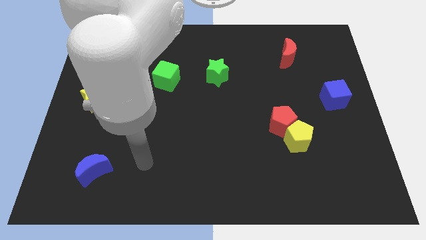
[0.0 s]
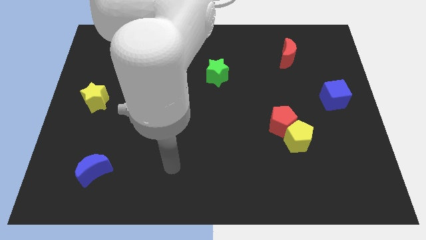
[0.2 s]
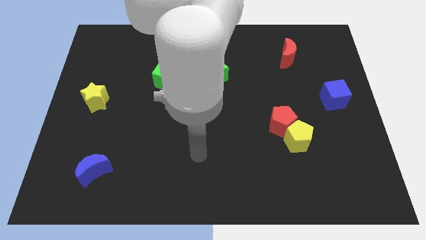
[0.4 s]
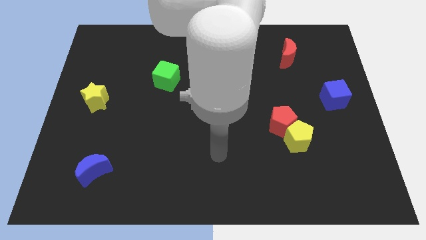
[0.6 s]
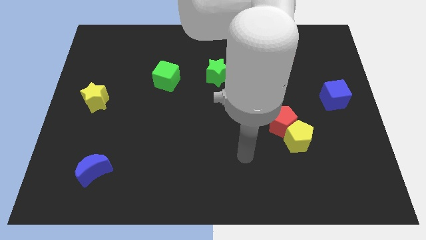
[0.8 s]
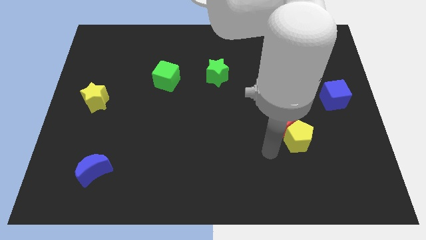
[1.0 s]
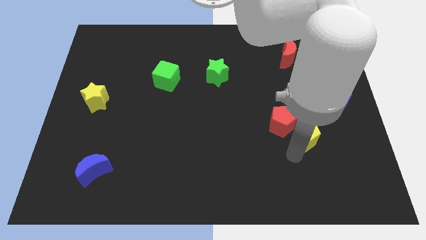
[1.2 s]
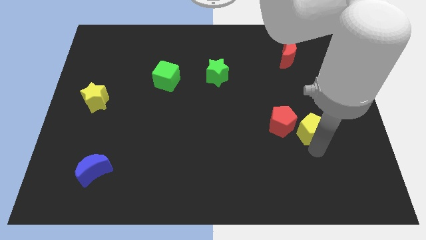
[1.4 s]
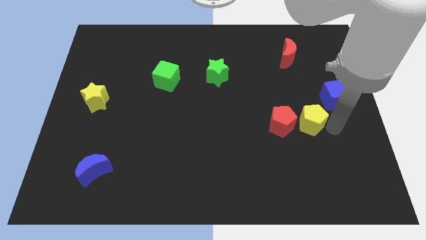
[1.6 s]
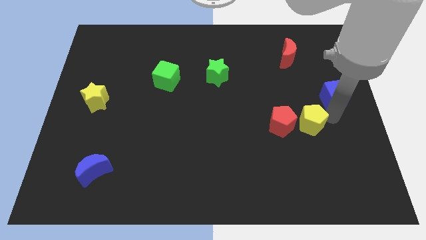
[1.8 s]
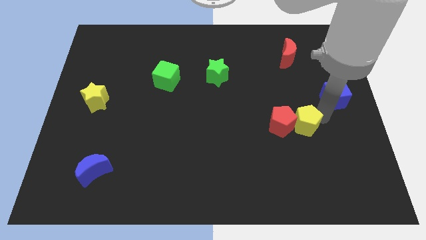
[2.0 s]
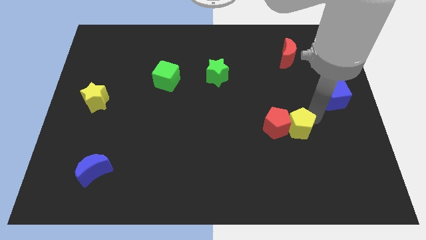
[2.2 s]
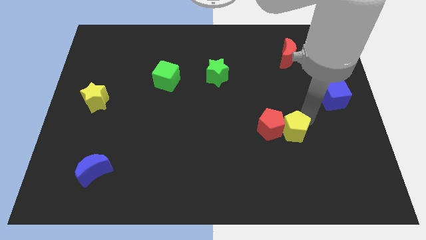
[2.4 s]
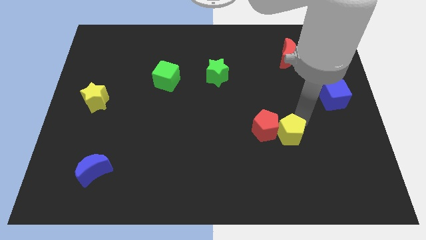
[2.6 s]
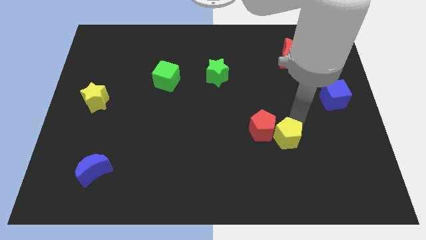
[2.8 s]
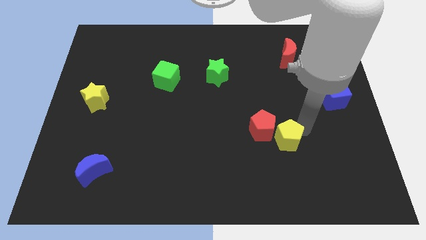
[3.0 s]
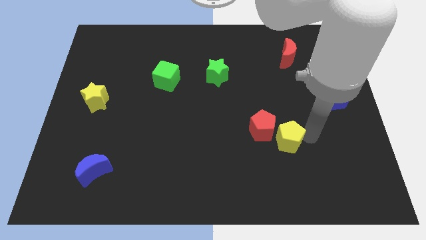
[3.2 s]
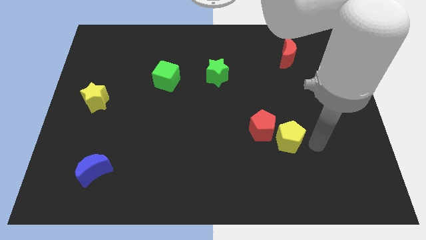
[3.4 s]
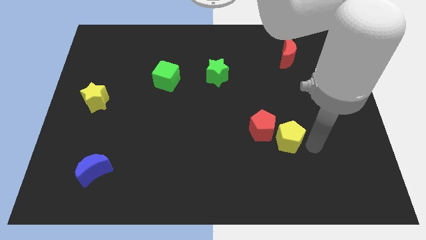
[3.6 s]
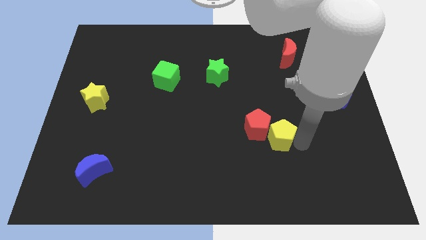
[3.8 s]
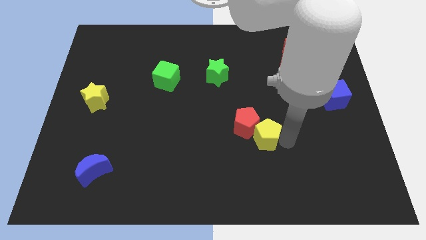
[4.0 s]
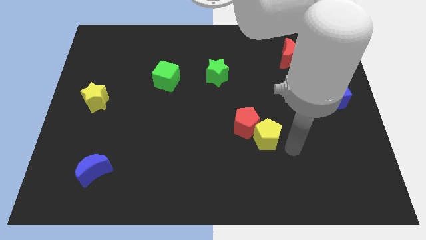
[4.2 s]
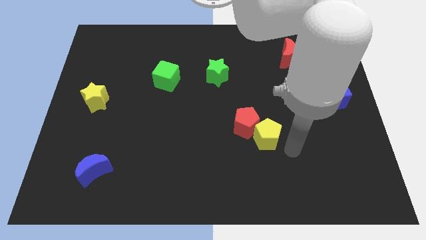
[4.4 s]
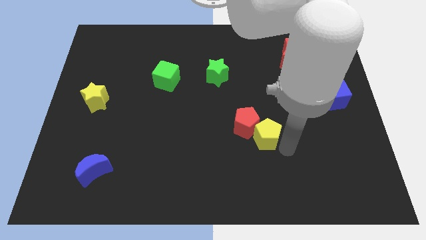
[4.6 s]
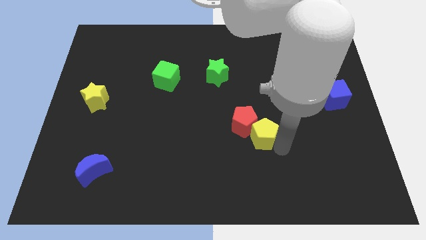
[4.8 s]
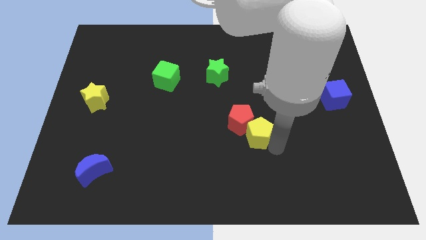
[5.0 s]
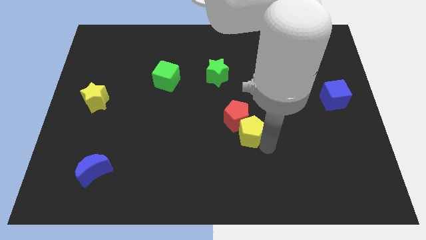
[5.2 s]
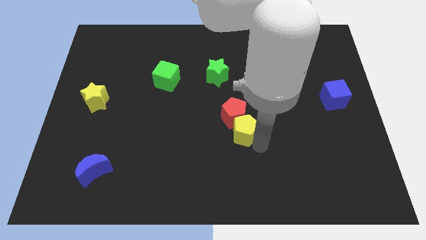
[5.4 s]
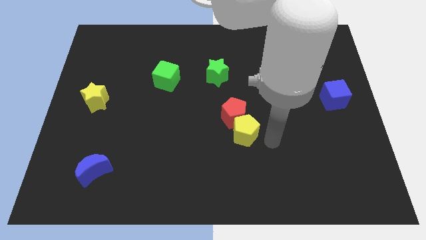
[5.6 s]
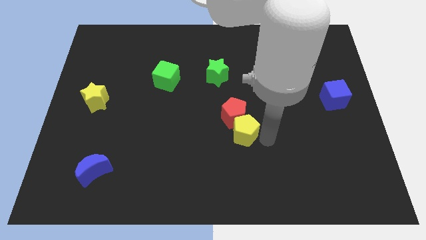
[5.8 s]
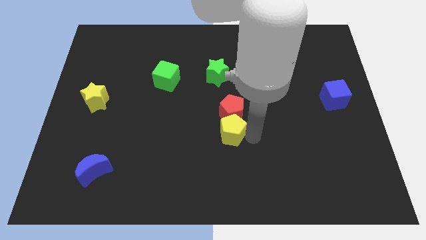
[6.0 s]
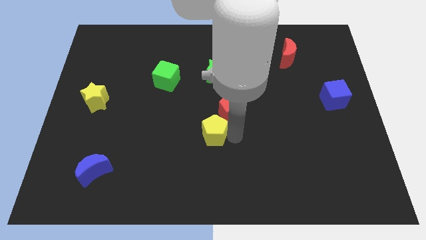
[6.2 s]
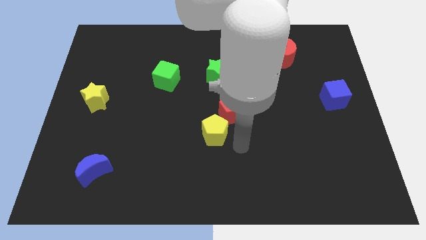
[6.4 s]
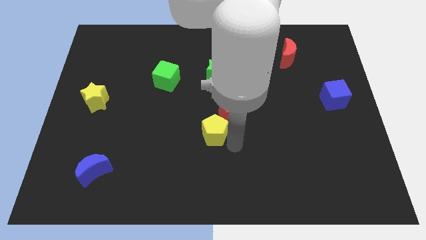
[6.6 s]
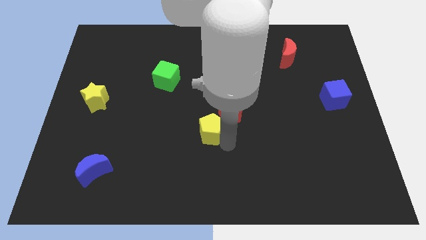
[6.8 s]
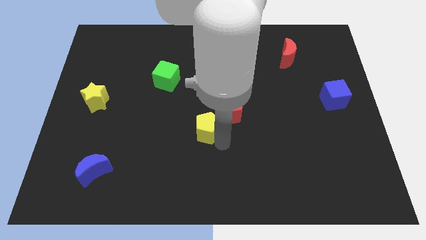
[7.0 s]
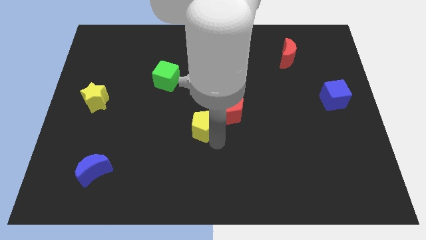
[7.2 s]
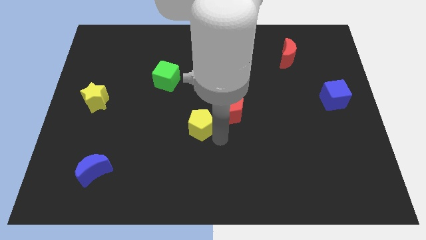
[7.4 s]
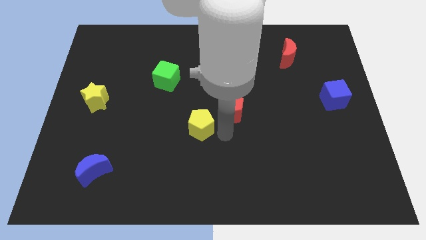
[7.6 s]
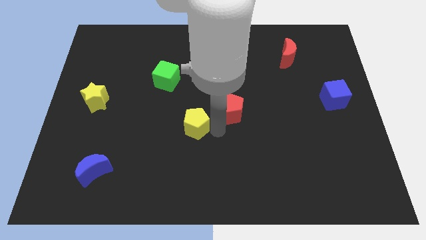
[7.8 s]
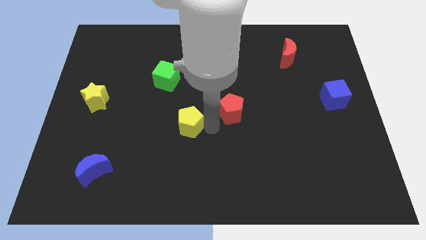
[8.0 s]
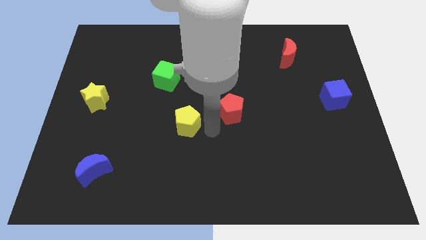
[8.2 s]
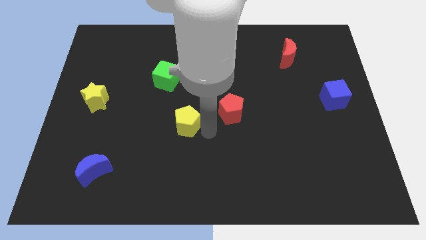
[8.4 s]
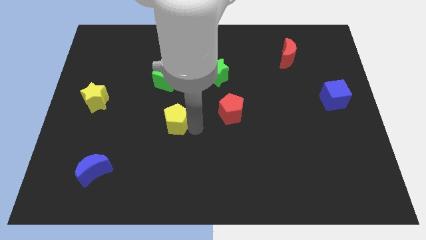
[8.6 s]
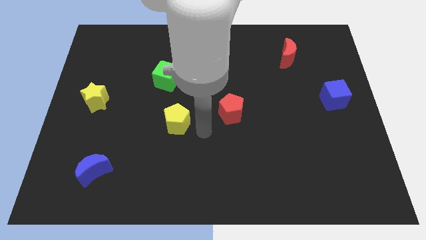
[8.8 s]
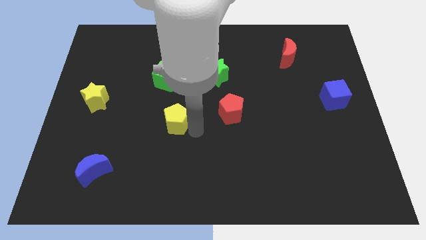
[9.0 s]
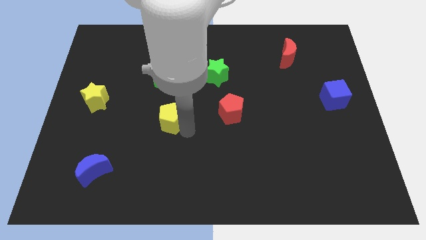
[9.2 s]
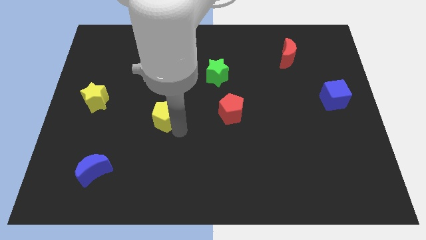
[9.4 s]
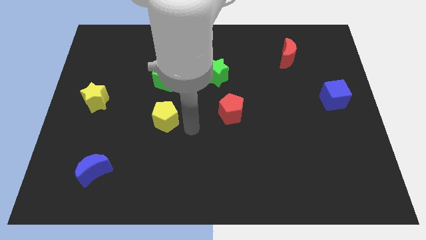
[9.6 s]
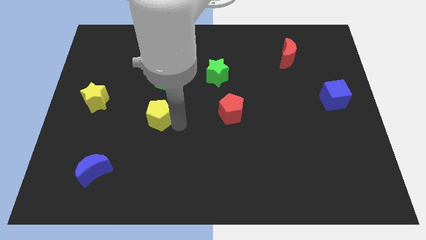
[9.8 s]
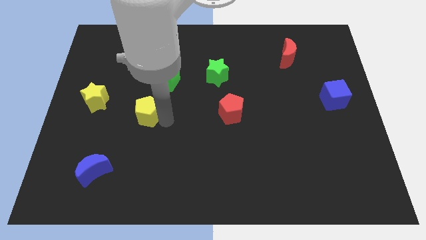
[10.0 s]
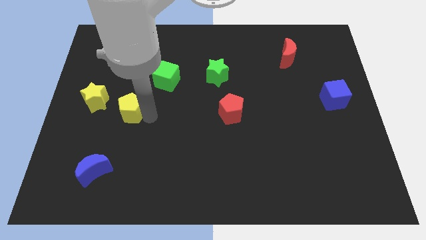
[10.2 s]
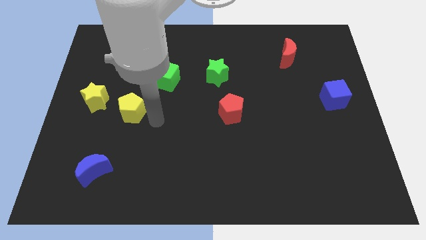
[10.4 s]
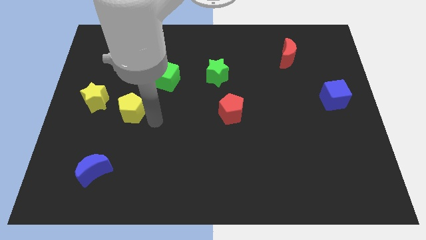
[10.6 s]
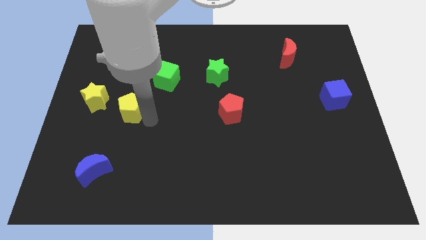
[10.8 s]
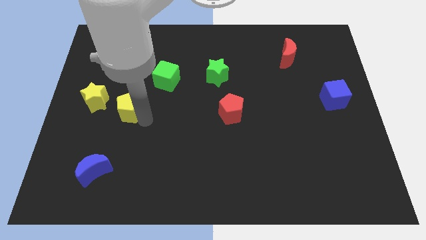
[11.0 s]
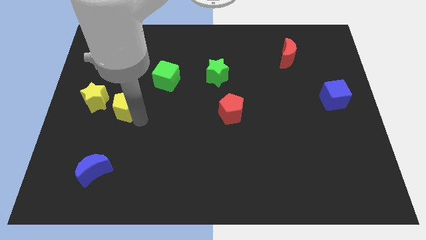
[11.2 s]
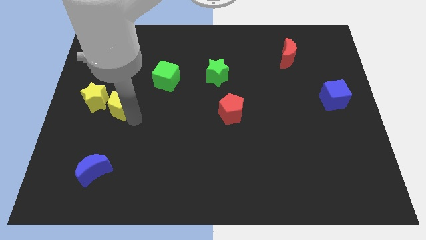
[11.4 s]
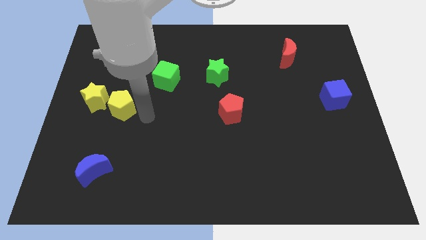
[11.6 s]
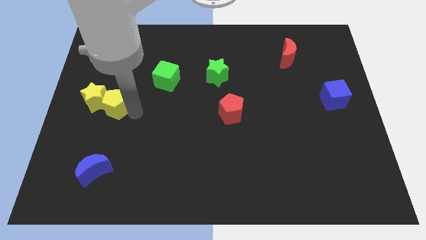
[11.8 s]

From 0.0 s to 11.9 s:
push the yellow pentagon to the yellow star

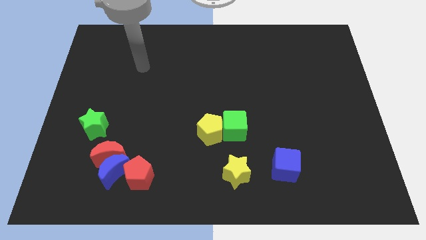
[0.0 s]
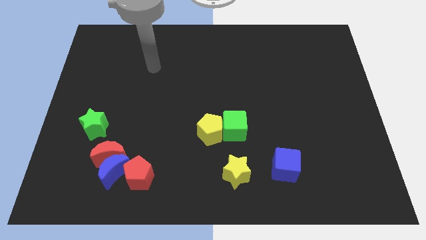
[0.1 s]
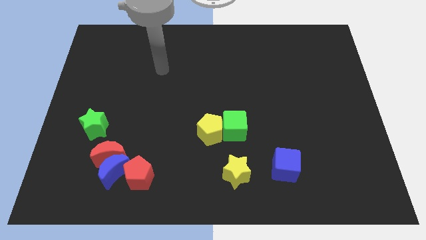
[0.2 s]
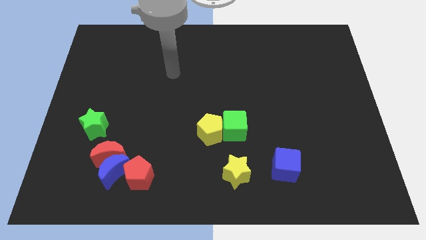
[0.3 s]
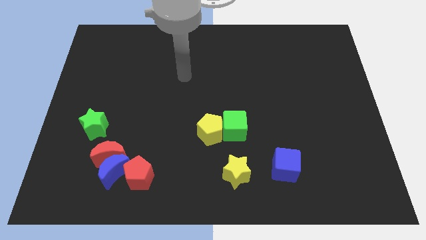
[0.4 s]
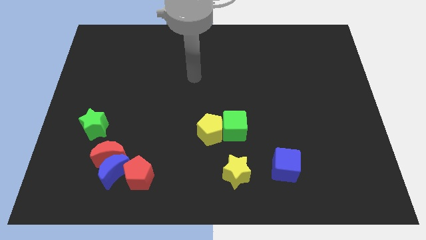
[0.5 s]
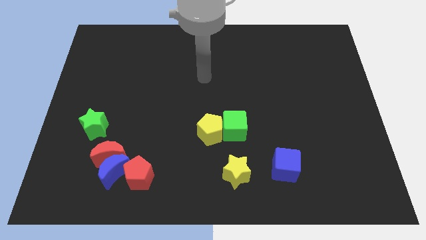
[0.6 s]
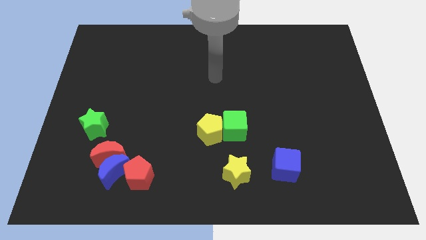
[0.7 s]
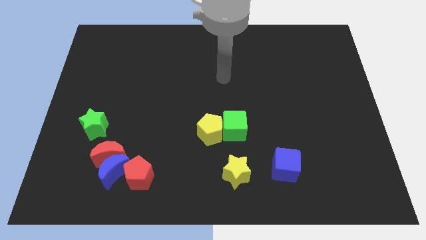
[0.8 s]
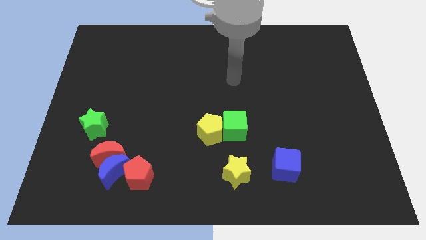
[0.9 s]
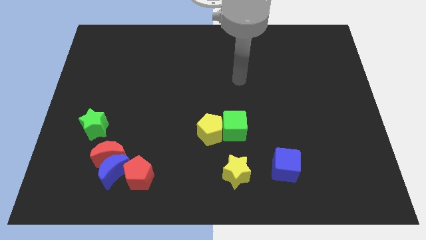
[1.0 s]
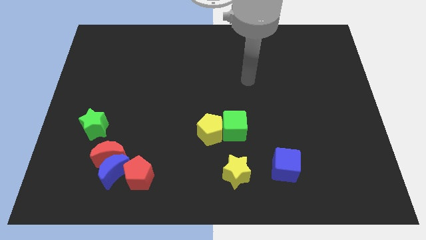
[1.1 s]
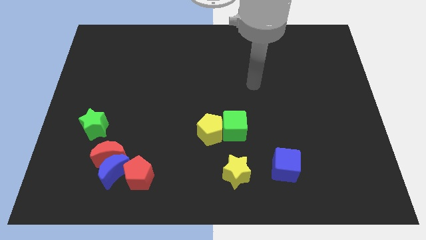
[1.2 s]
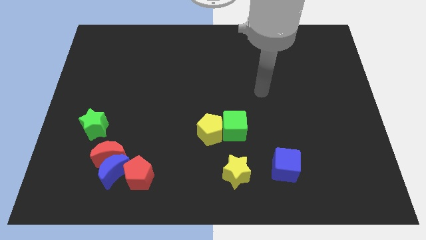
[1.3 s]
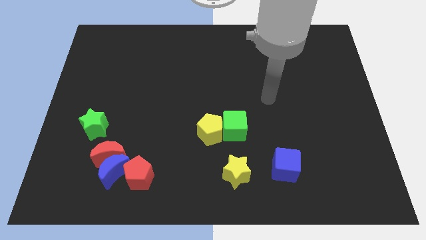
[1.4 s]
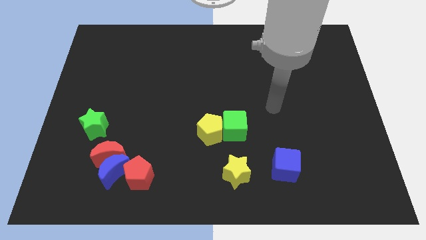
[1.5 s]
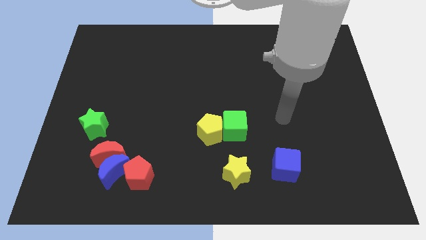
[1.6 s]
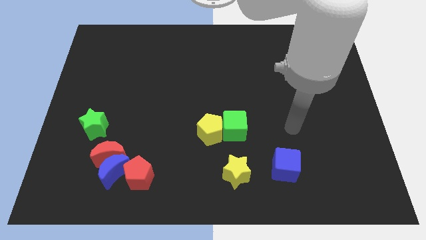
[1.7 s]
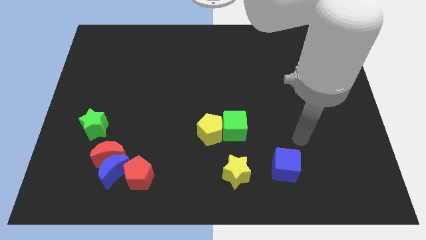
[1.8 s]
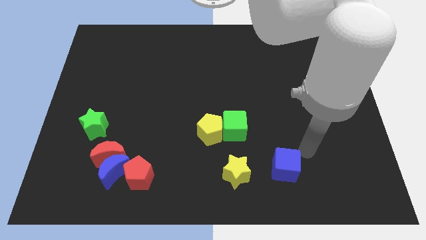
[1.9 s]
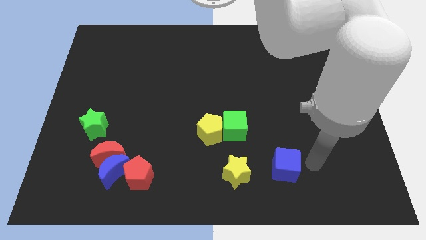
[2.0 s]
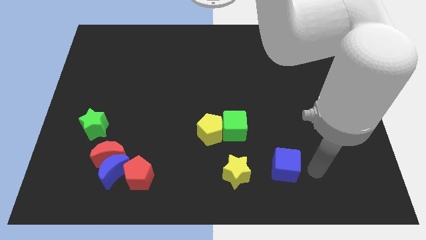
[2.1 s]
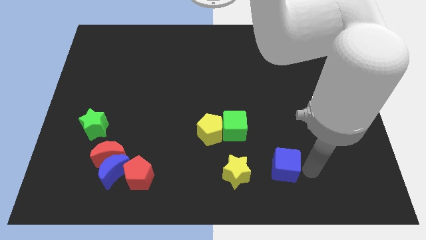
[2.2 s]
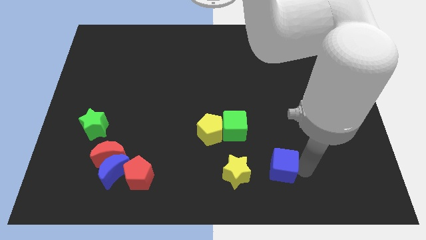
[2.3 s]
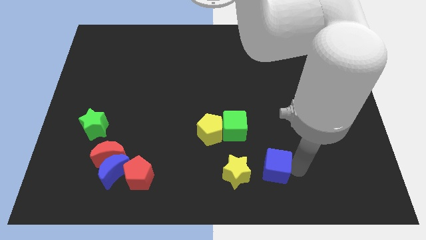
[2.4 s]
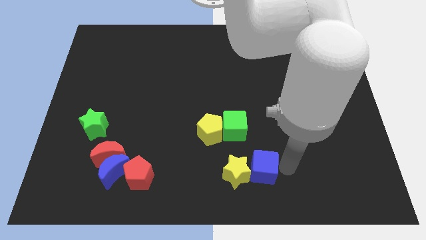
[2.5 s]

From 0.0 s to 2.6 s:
slide the blue cube close to the yellow star
